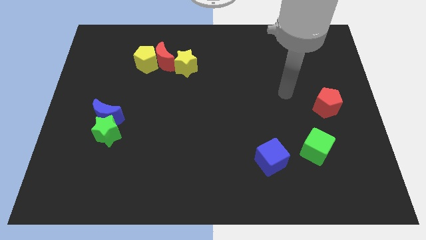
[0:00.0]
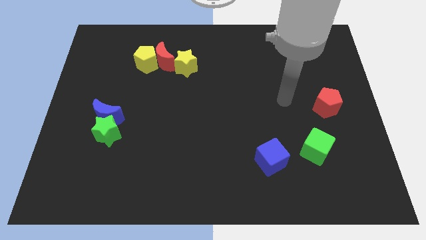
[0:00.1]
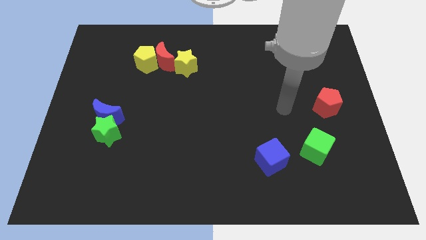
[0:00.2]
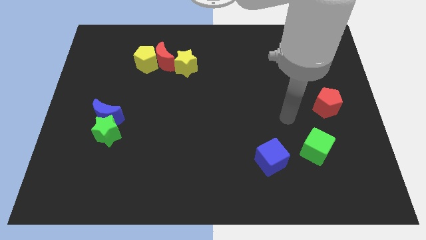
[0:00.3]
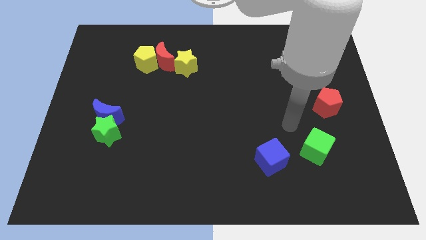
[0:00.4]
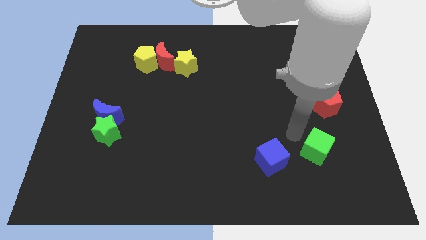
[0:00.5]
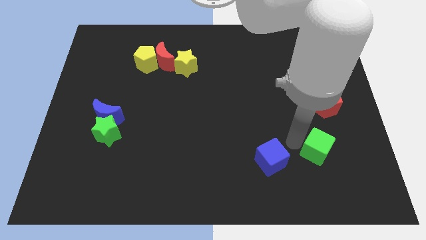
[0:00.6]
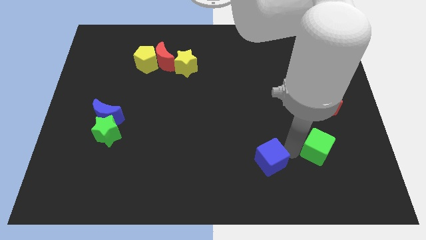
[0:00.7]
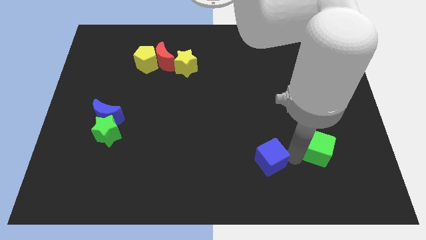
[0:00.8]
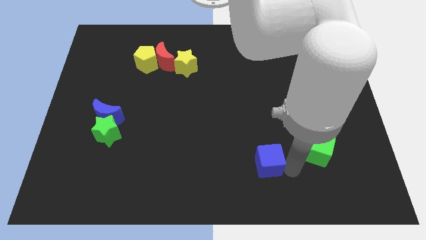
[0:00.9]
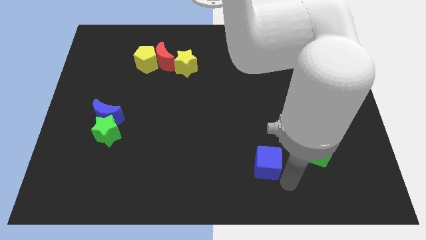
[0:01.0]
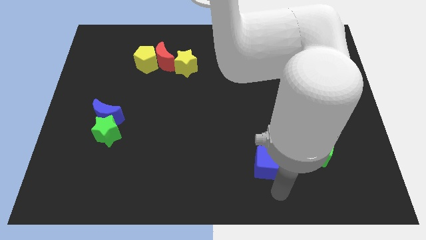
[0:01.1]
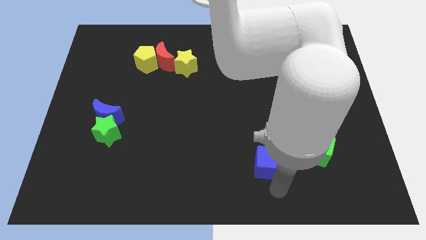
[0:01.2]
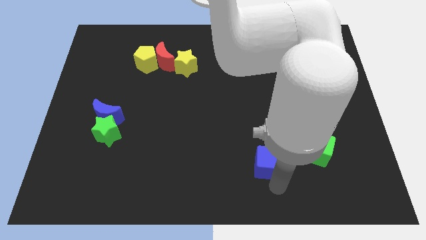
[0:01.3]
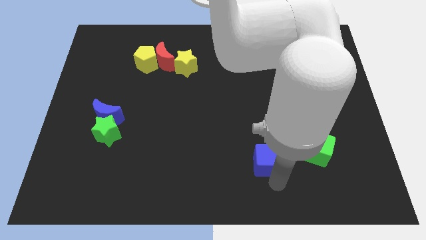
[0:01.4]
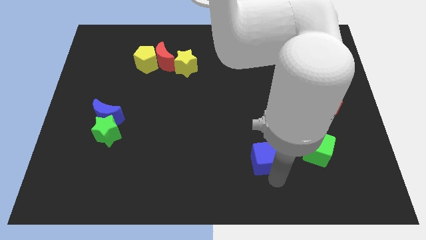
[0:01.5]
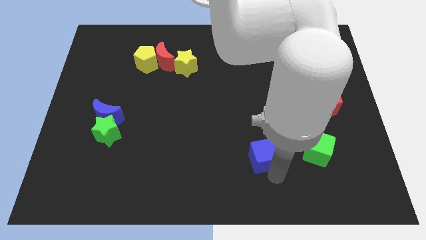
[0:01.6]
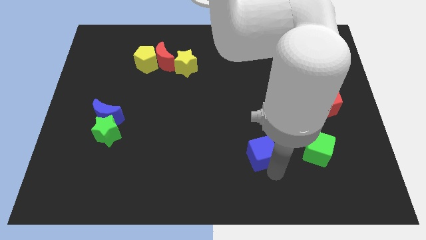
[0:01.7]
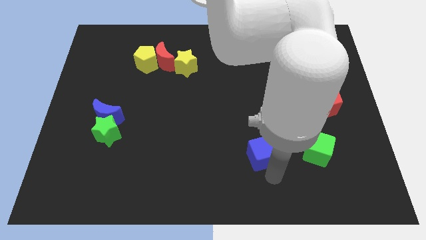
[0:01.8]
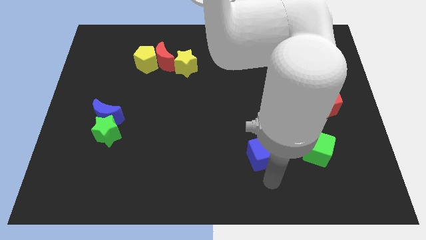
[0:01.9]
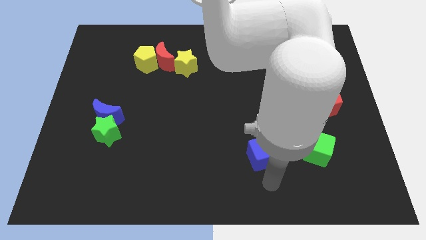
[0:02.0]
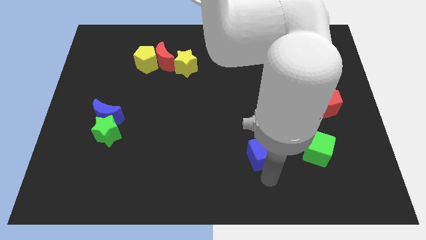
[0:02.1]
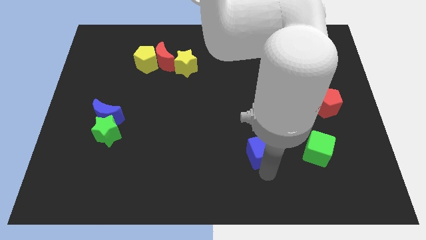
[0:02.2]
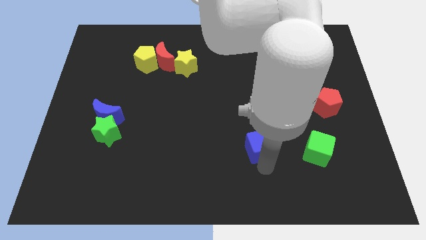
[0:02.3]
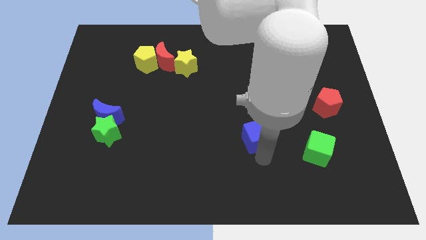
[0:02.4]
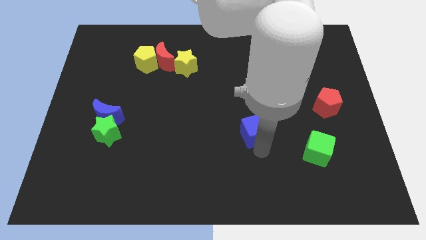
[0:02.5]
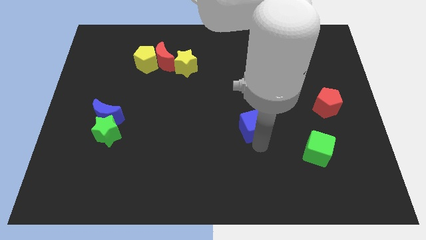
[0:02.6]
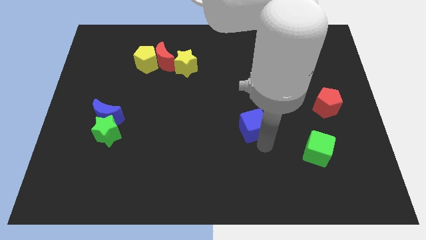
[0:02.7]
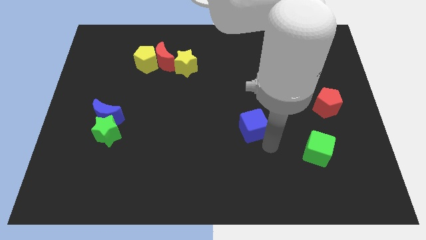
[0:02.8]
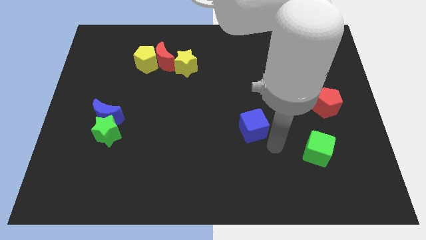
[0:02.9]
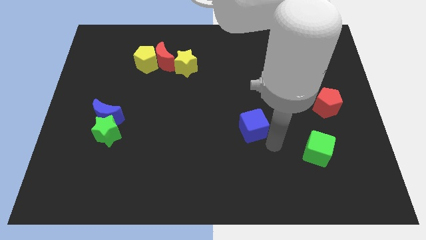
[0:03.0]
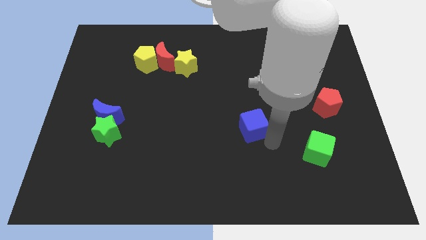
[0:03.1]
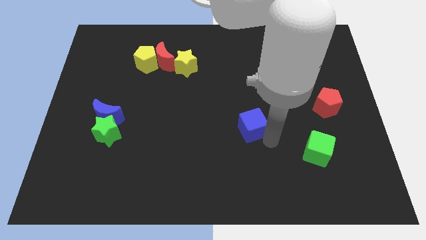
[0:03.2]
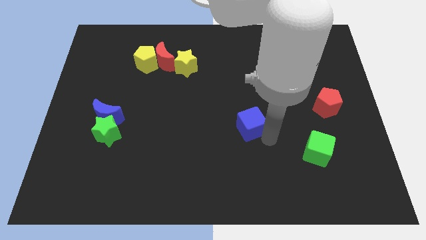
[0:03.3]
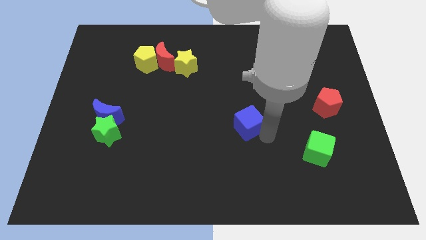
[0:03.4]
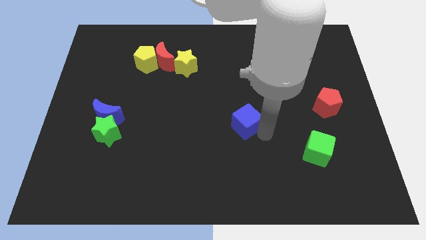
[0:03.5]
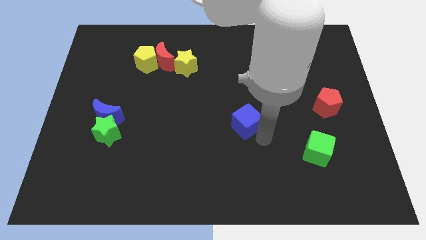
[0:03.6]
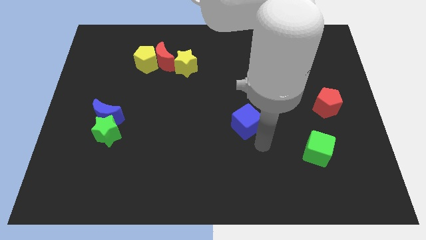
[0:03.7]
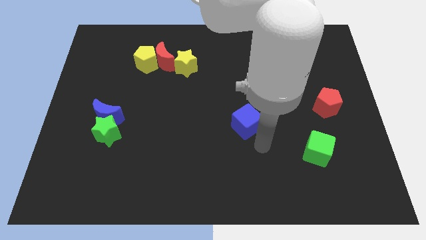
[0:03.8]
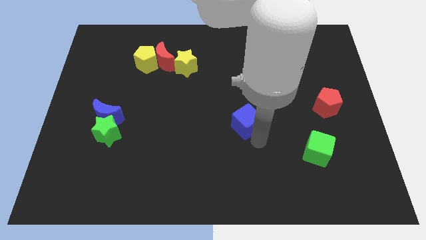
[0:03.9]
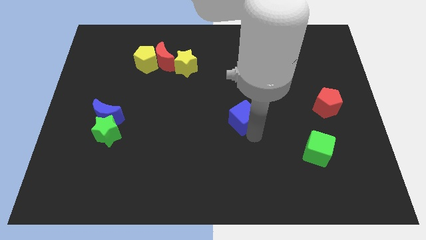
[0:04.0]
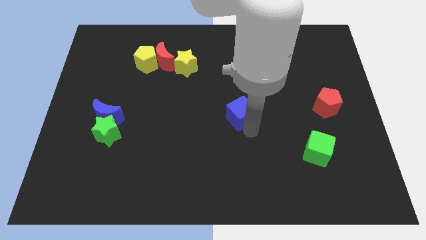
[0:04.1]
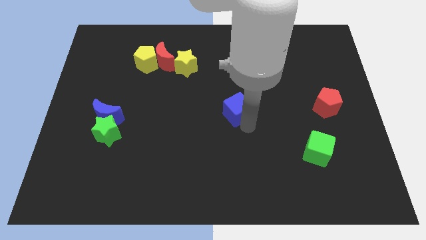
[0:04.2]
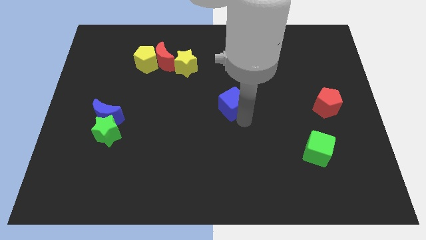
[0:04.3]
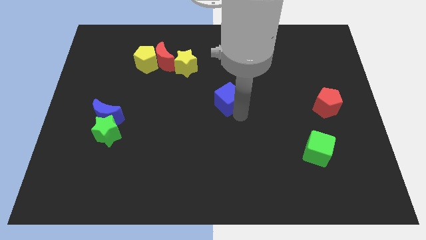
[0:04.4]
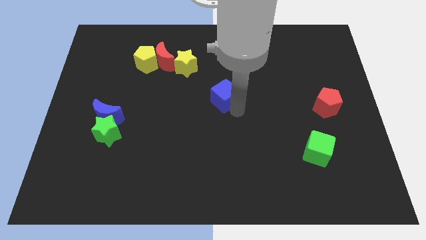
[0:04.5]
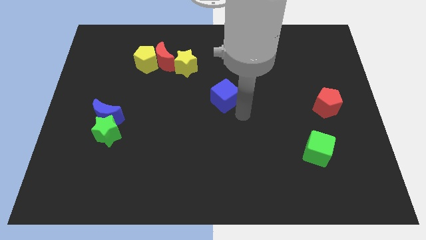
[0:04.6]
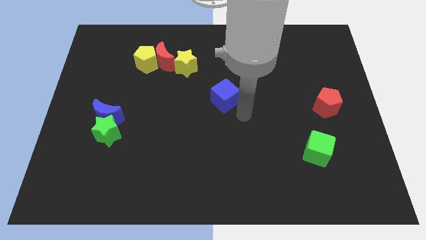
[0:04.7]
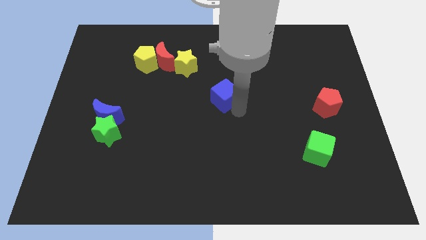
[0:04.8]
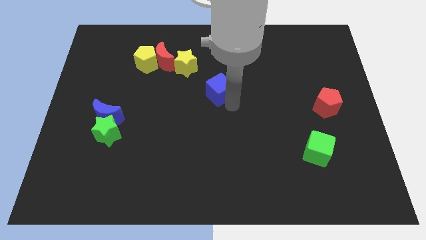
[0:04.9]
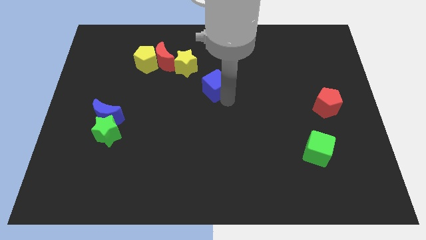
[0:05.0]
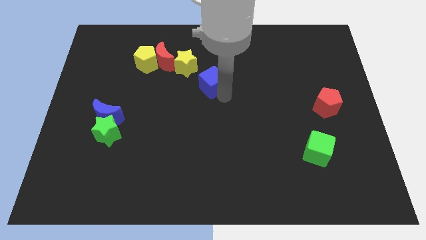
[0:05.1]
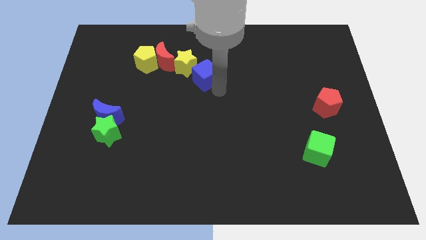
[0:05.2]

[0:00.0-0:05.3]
put the blue cube close to the yellow star

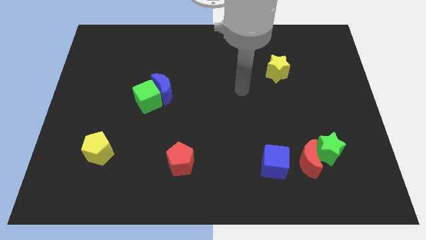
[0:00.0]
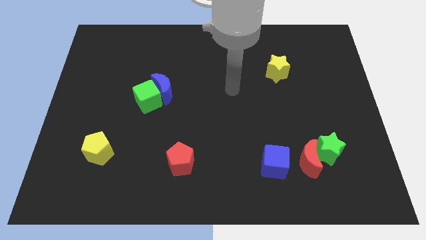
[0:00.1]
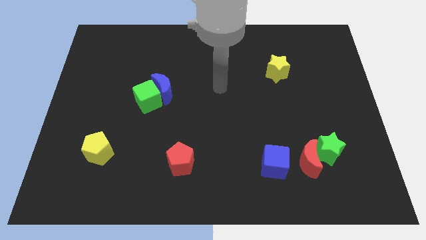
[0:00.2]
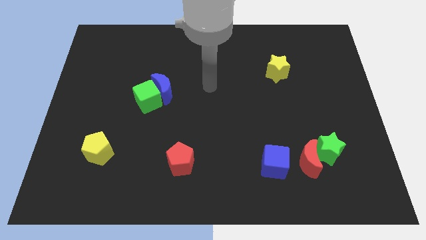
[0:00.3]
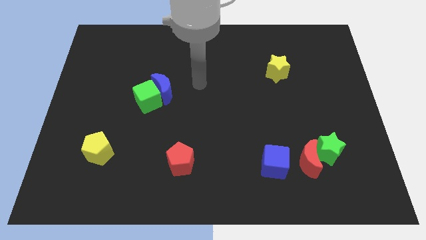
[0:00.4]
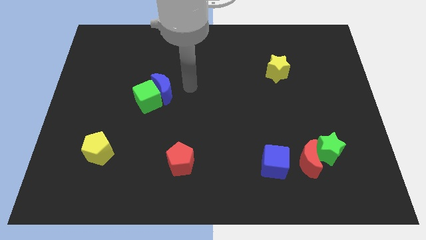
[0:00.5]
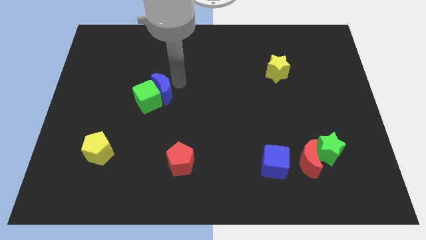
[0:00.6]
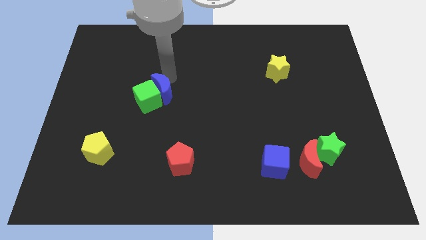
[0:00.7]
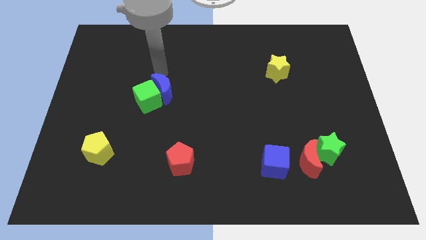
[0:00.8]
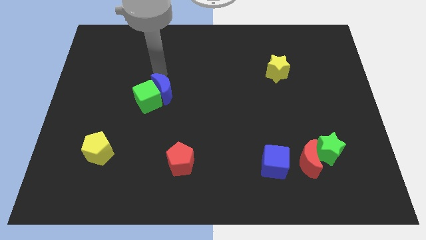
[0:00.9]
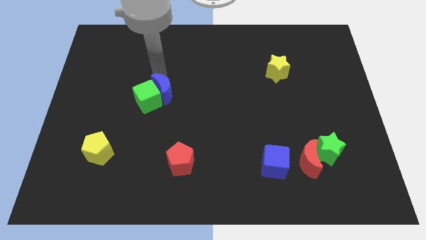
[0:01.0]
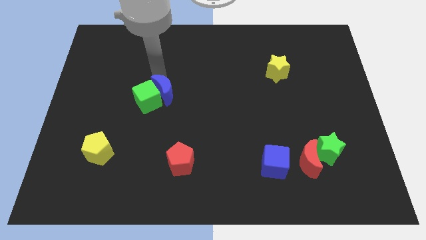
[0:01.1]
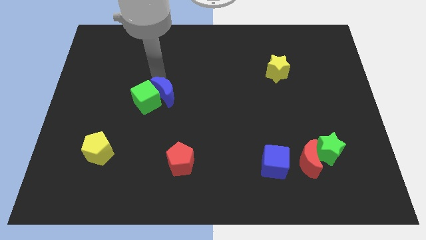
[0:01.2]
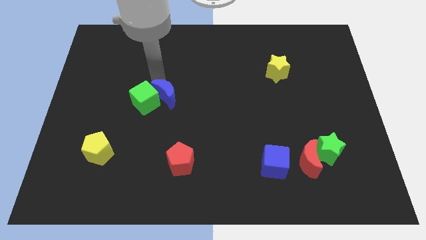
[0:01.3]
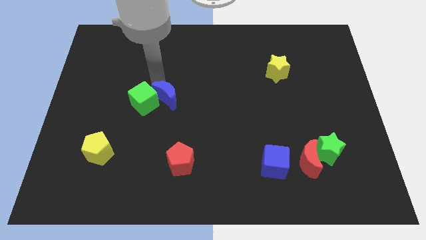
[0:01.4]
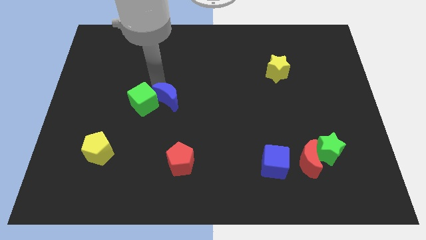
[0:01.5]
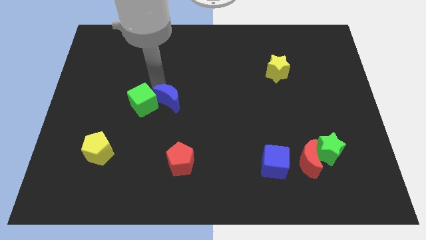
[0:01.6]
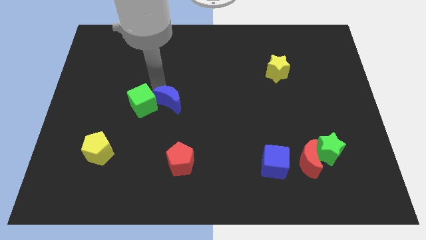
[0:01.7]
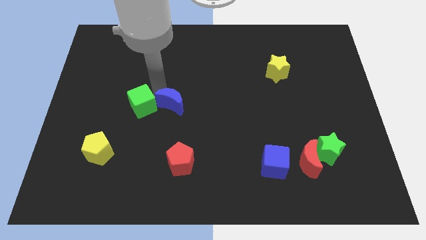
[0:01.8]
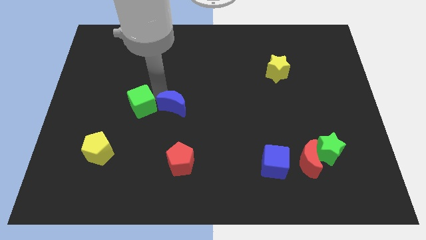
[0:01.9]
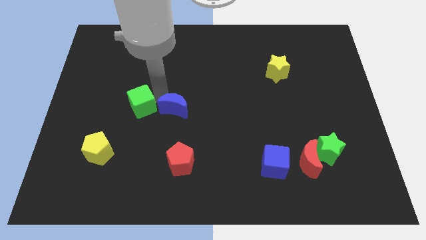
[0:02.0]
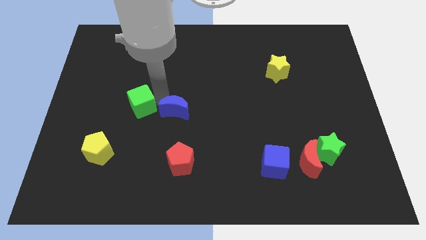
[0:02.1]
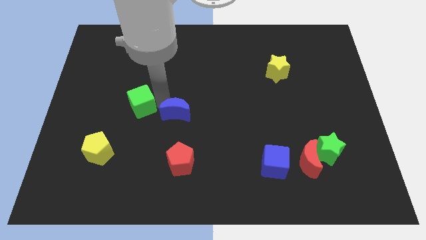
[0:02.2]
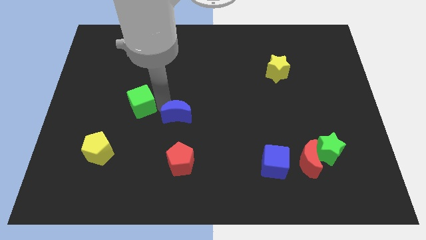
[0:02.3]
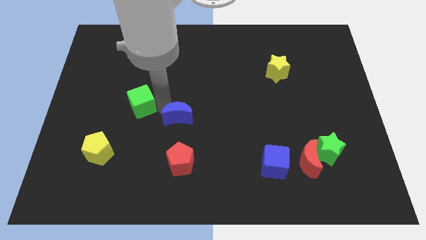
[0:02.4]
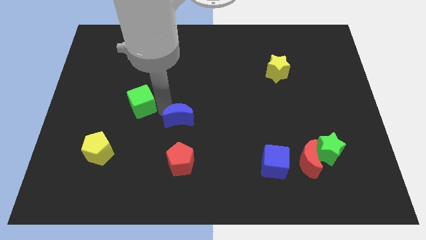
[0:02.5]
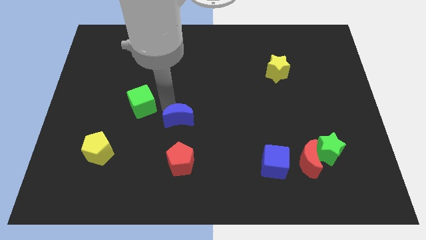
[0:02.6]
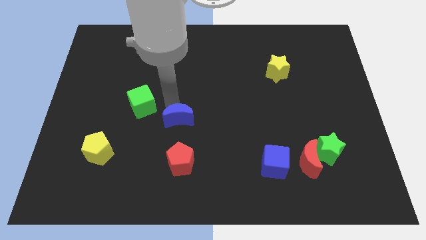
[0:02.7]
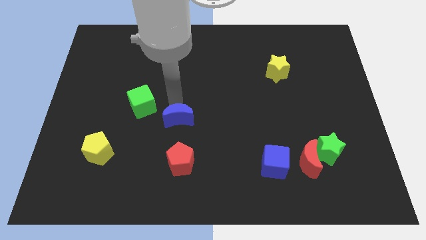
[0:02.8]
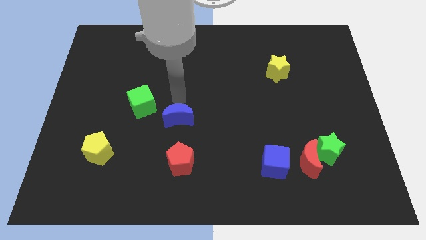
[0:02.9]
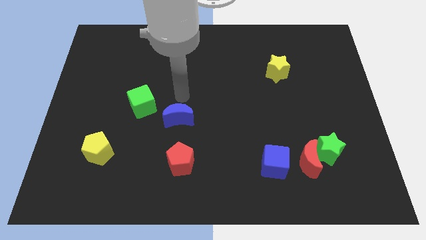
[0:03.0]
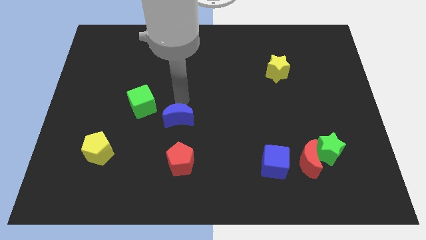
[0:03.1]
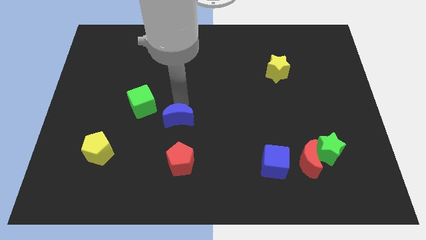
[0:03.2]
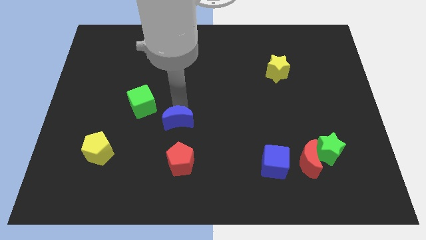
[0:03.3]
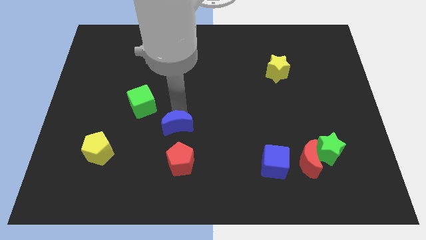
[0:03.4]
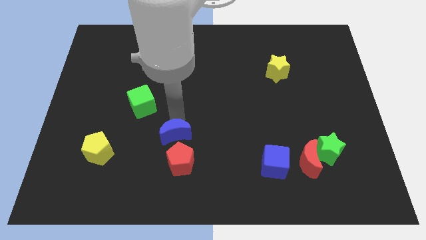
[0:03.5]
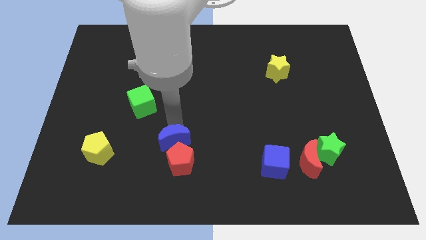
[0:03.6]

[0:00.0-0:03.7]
slide the blue moon to the red pentagon
